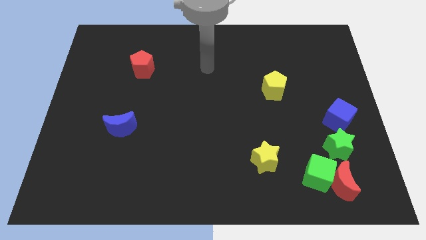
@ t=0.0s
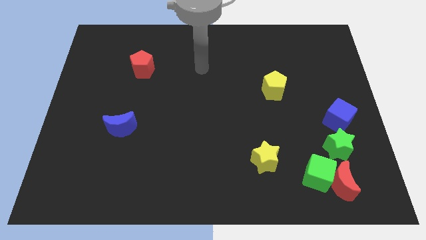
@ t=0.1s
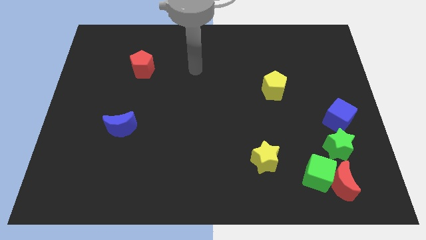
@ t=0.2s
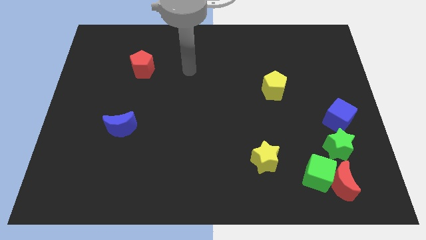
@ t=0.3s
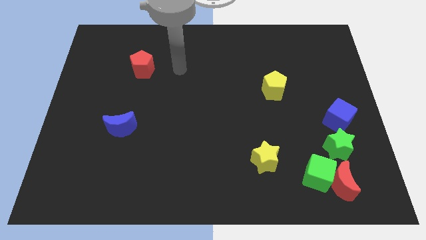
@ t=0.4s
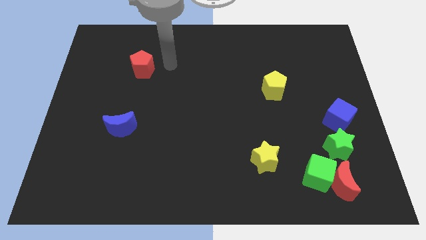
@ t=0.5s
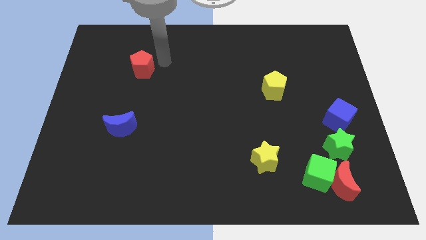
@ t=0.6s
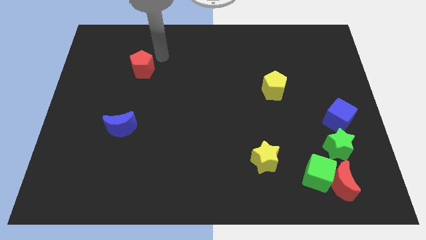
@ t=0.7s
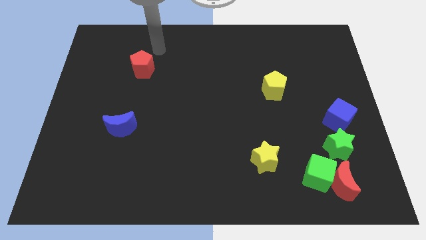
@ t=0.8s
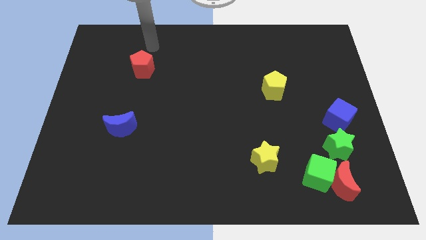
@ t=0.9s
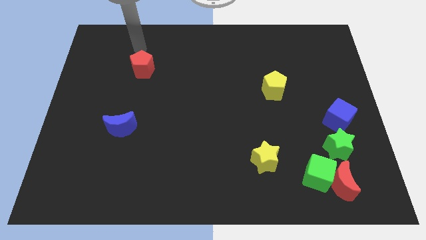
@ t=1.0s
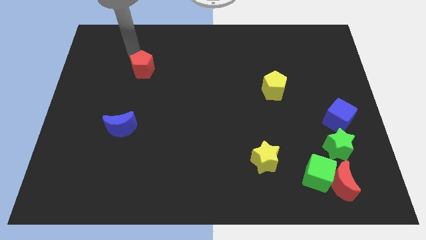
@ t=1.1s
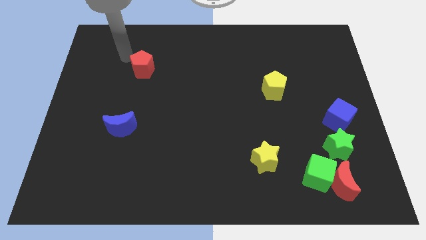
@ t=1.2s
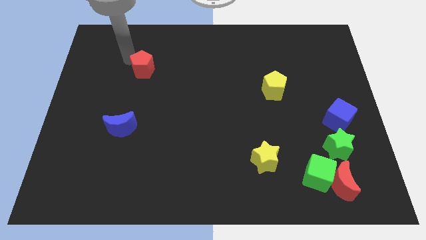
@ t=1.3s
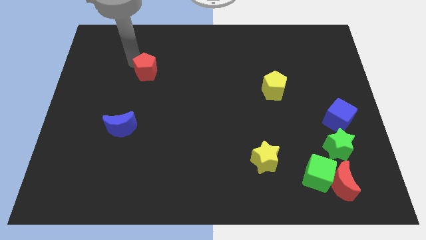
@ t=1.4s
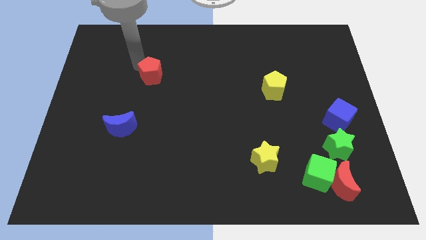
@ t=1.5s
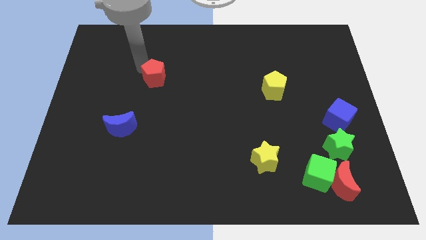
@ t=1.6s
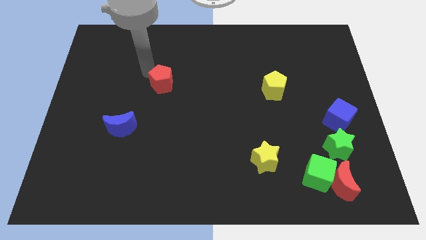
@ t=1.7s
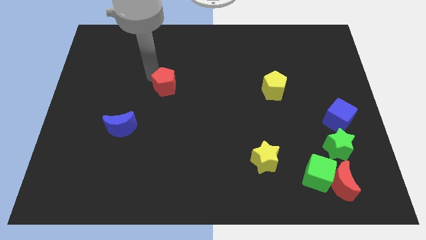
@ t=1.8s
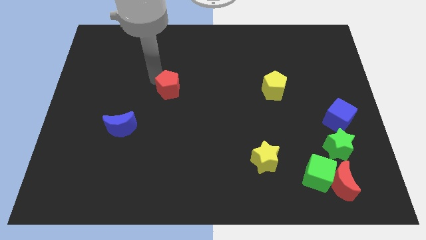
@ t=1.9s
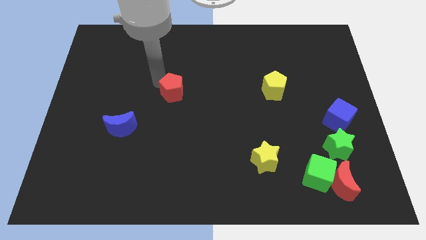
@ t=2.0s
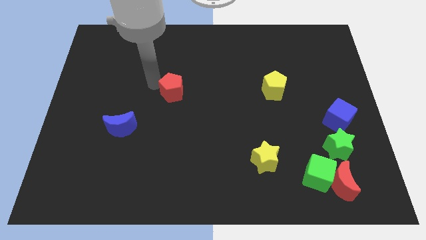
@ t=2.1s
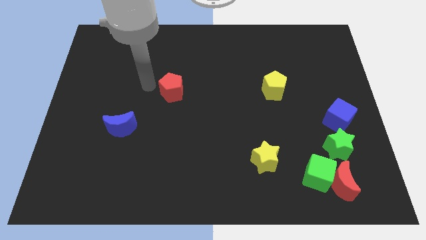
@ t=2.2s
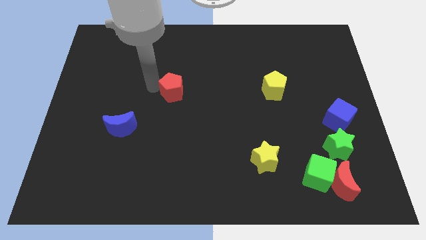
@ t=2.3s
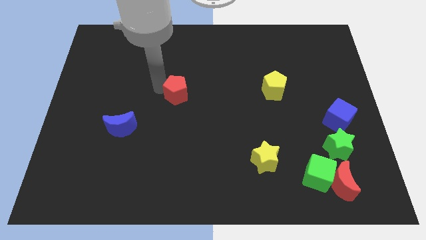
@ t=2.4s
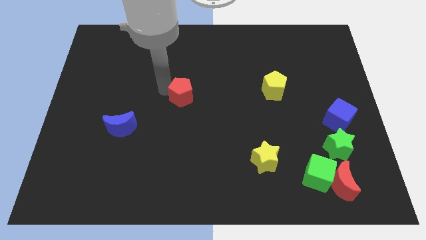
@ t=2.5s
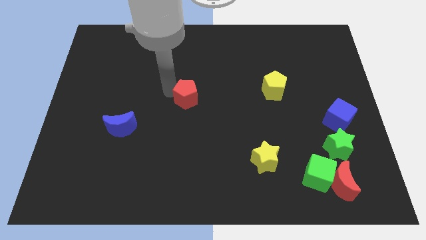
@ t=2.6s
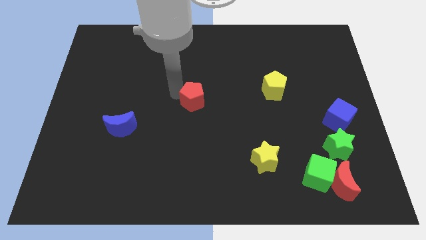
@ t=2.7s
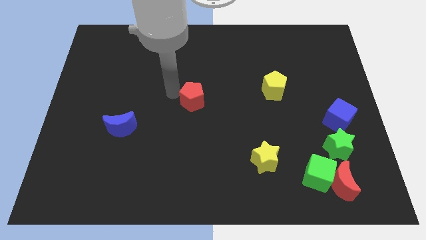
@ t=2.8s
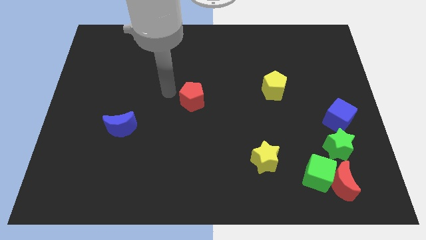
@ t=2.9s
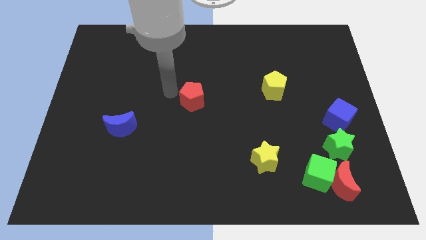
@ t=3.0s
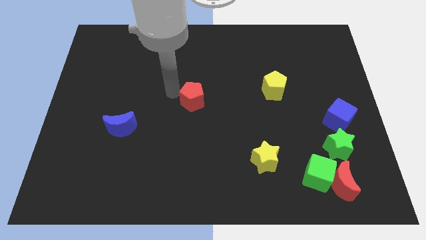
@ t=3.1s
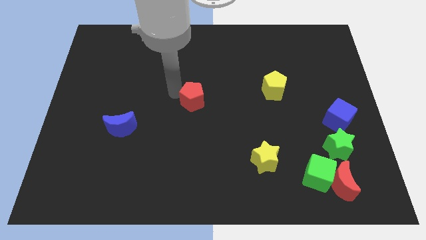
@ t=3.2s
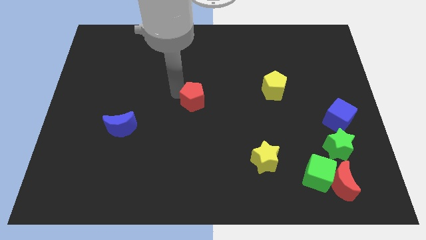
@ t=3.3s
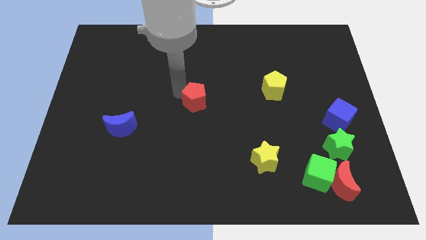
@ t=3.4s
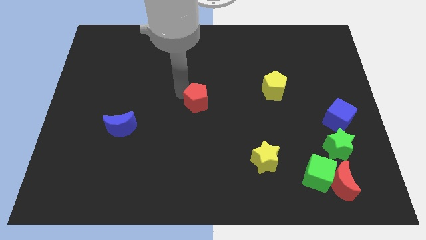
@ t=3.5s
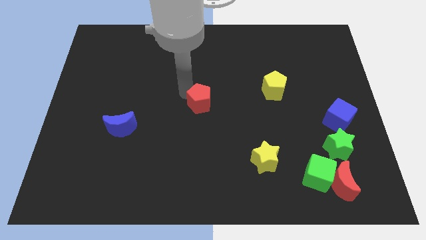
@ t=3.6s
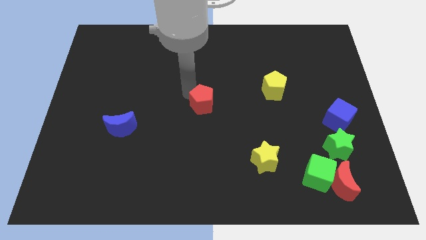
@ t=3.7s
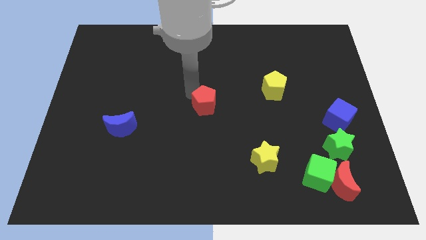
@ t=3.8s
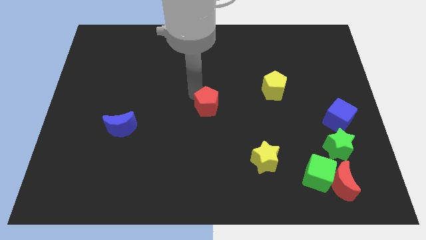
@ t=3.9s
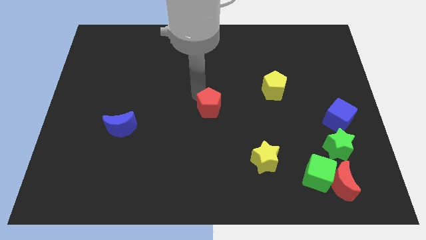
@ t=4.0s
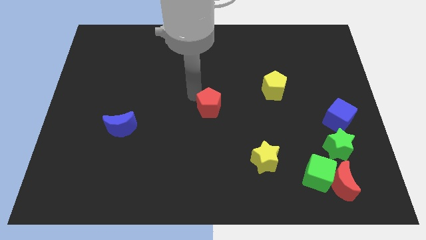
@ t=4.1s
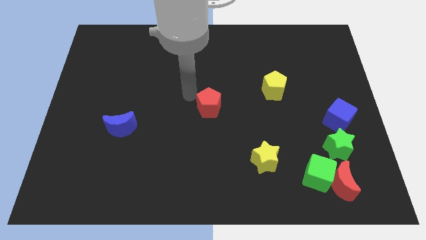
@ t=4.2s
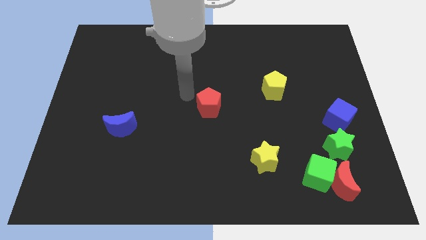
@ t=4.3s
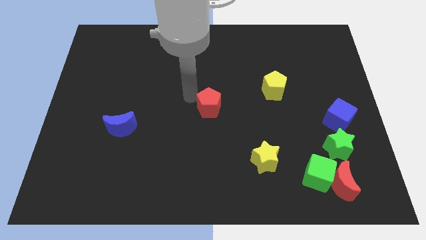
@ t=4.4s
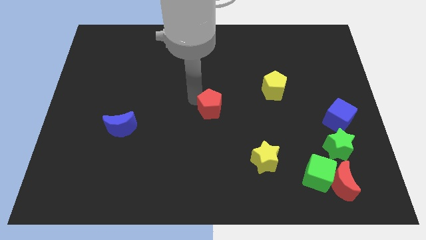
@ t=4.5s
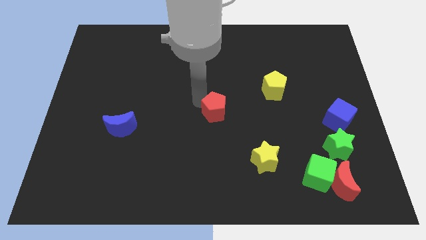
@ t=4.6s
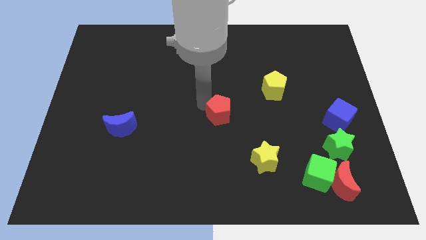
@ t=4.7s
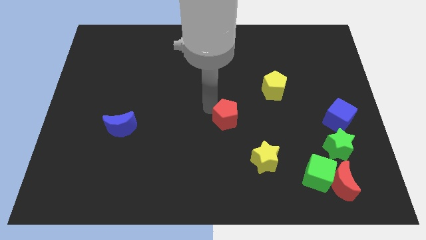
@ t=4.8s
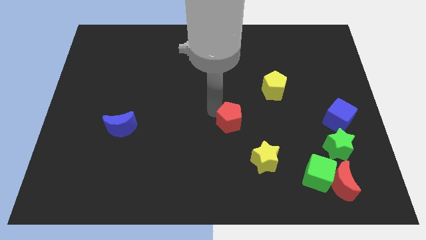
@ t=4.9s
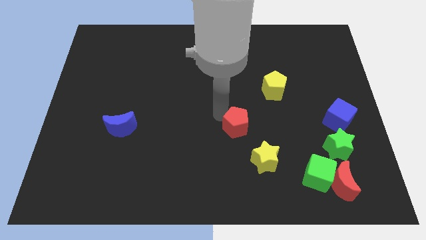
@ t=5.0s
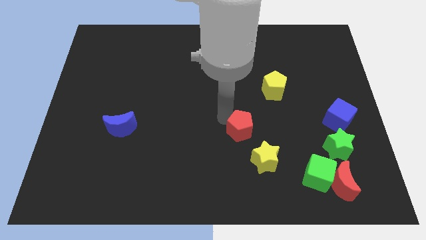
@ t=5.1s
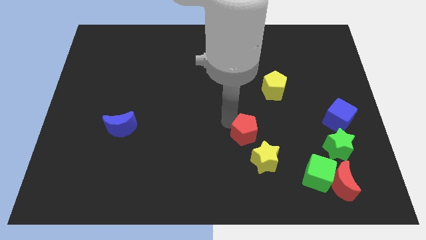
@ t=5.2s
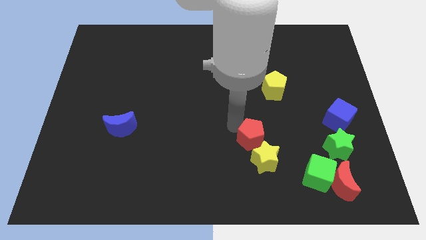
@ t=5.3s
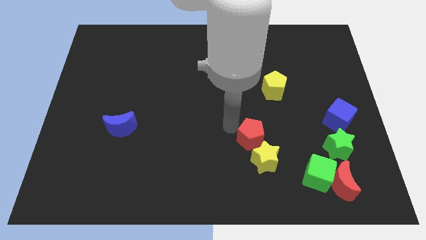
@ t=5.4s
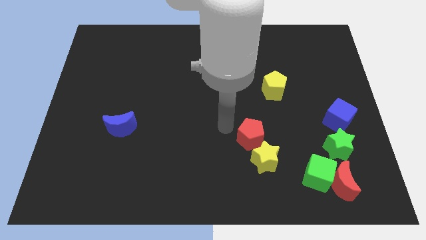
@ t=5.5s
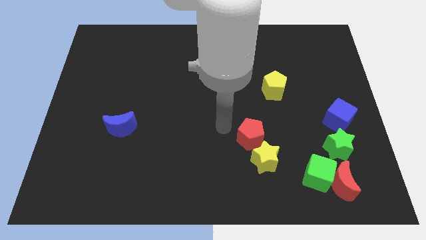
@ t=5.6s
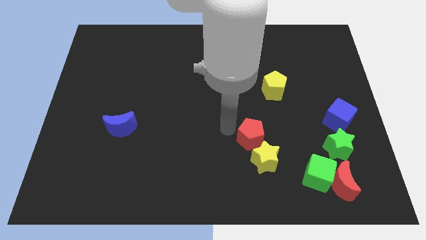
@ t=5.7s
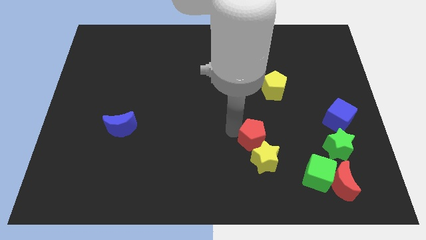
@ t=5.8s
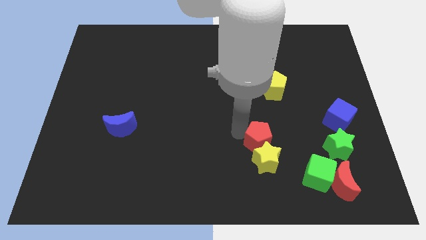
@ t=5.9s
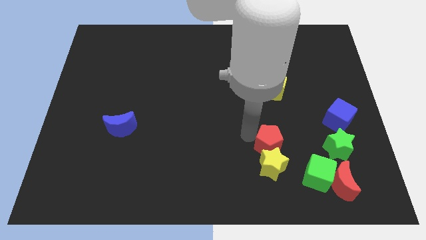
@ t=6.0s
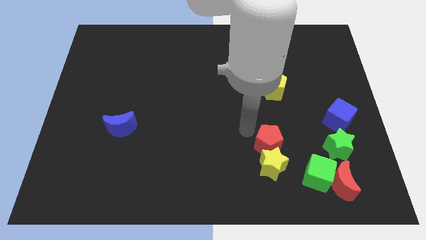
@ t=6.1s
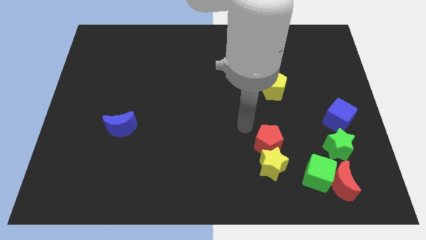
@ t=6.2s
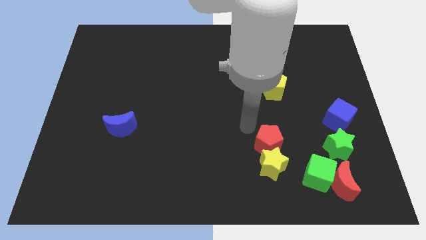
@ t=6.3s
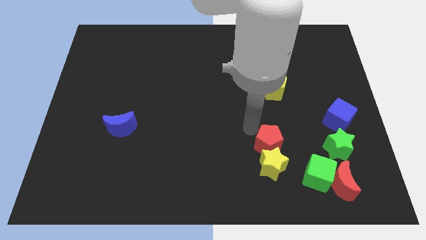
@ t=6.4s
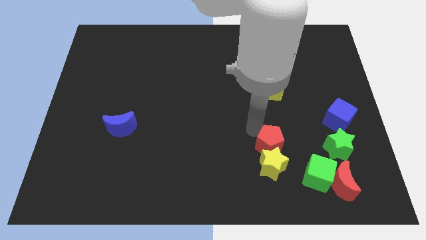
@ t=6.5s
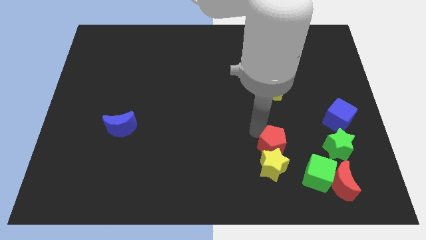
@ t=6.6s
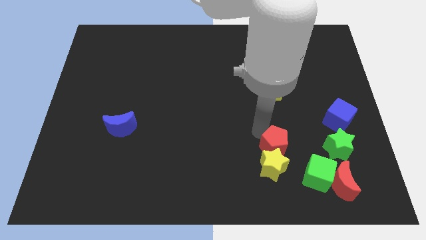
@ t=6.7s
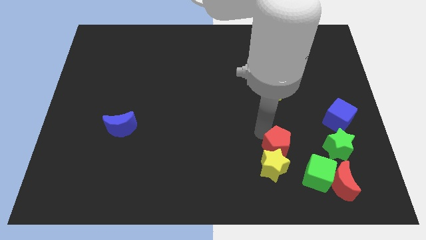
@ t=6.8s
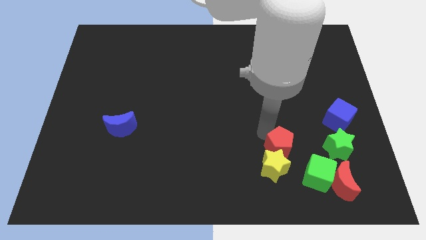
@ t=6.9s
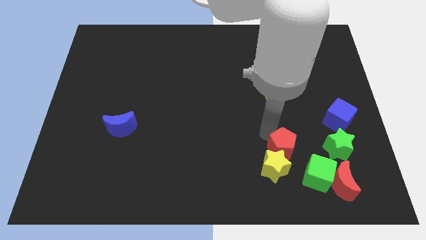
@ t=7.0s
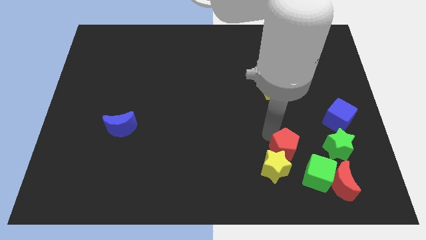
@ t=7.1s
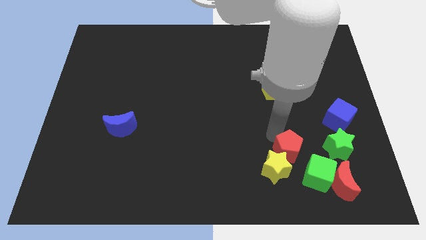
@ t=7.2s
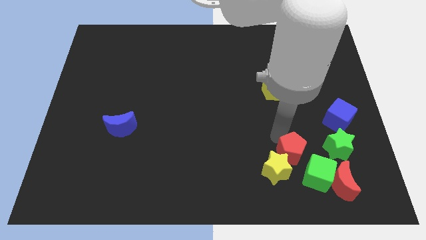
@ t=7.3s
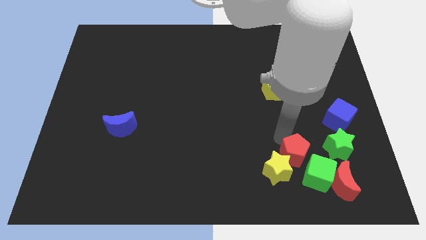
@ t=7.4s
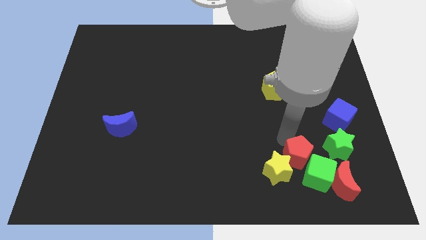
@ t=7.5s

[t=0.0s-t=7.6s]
put the red pentagon to the green cube

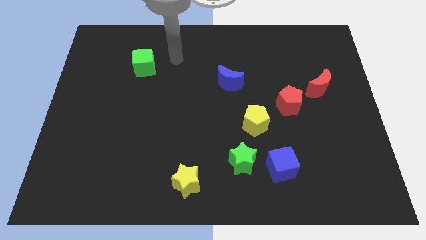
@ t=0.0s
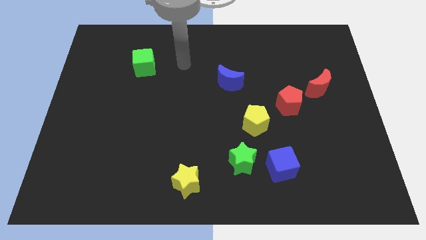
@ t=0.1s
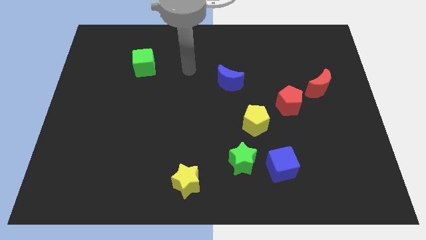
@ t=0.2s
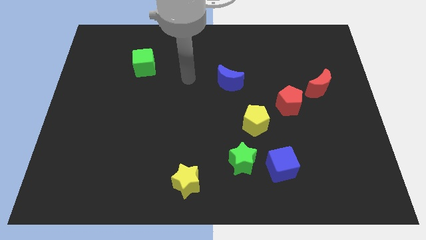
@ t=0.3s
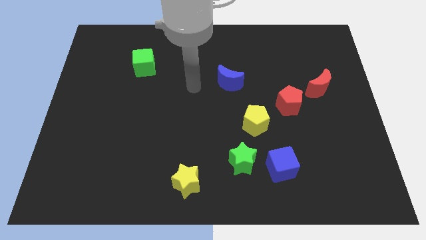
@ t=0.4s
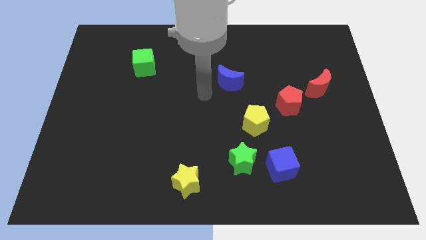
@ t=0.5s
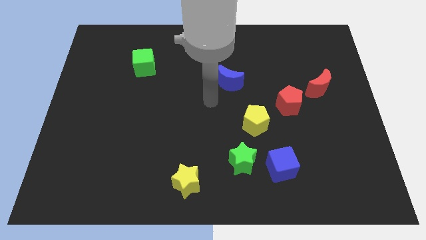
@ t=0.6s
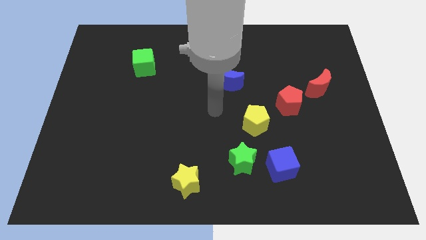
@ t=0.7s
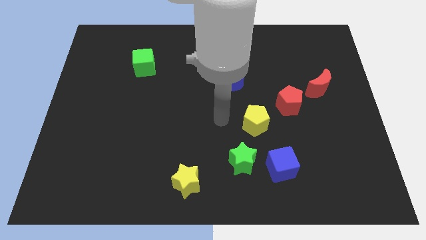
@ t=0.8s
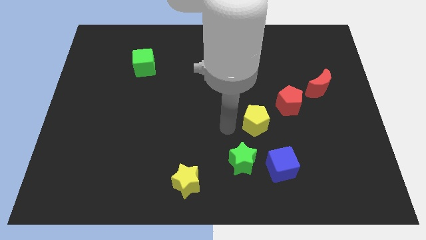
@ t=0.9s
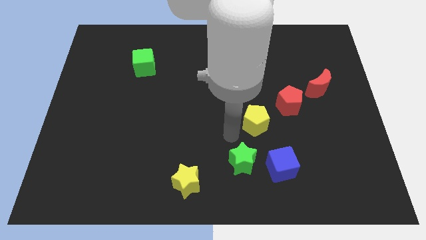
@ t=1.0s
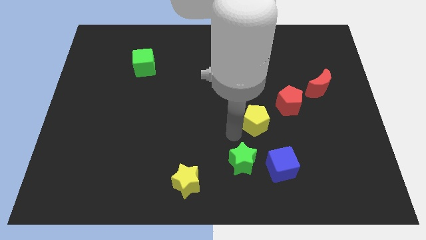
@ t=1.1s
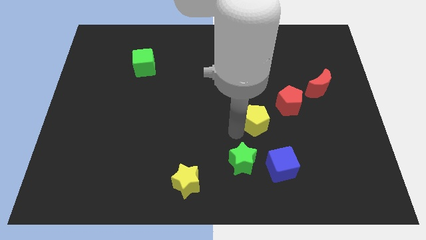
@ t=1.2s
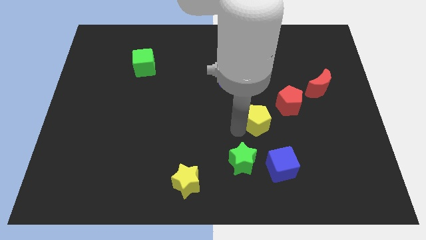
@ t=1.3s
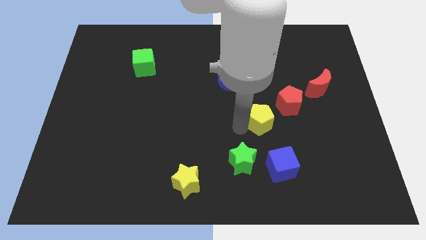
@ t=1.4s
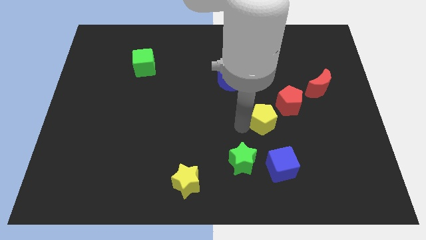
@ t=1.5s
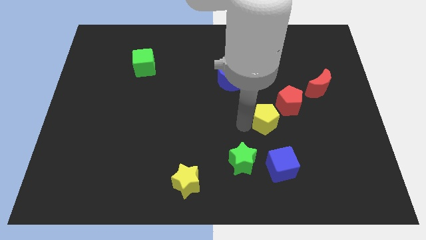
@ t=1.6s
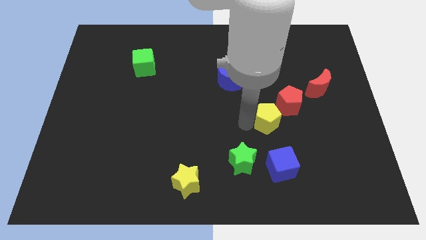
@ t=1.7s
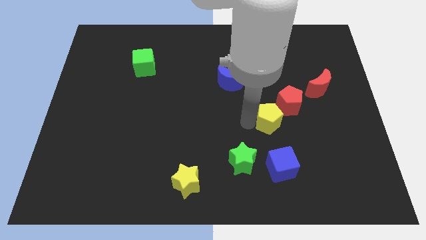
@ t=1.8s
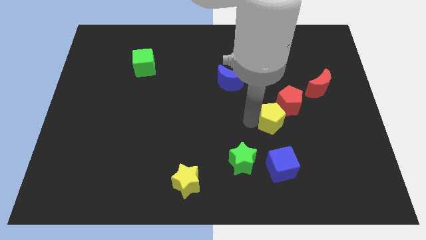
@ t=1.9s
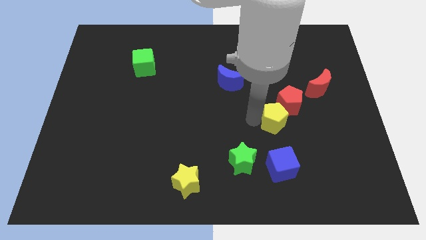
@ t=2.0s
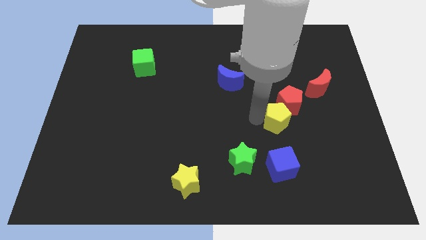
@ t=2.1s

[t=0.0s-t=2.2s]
push the yellow pentagon next to the red pentagon
